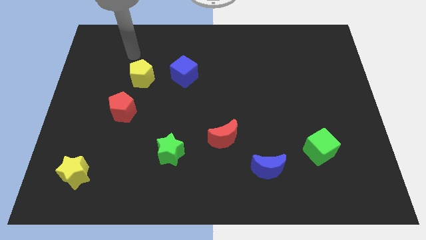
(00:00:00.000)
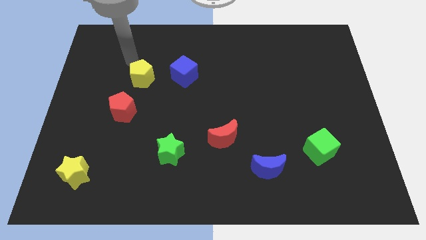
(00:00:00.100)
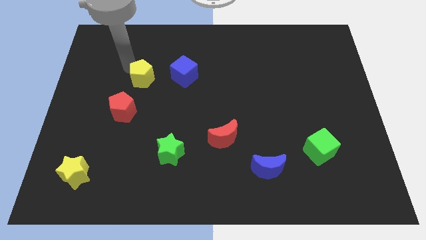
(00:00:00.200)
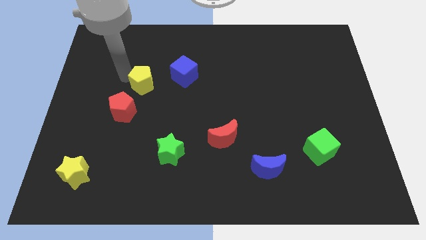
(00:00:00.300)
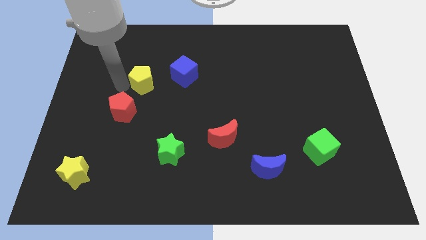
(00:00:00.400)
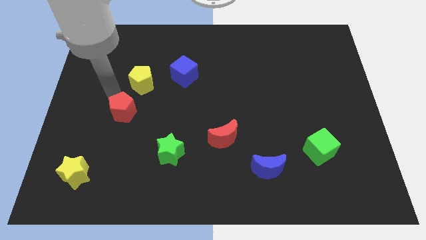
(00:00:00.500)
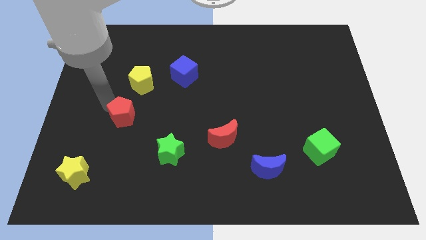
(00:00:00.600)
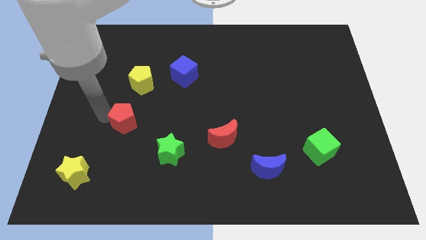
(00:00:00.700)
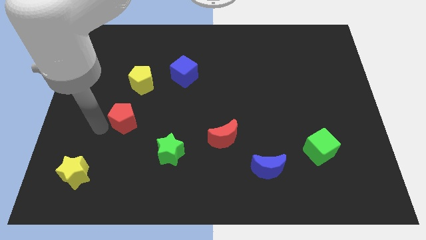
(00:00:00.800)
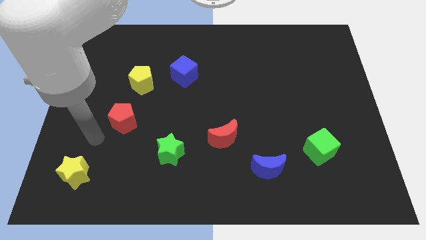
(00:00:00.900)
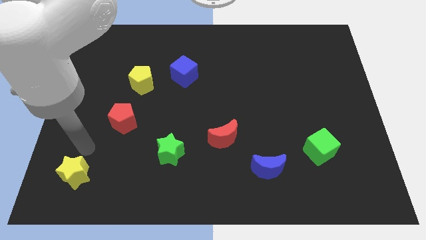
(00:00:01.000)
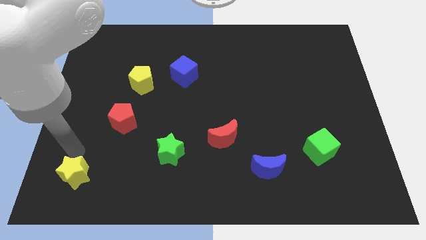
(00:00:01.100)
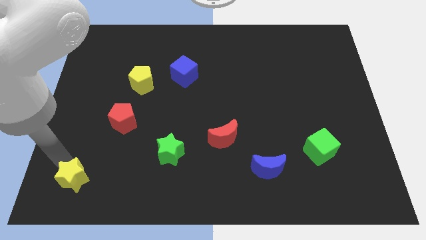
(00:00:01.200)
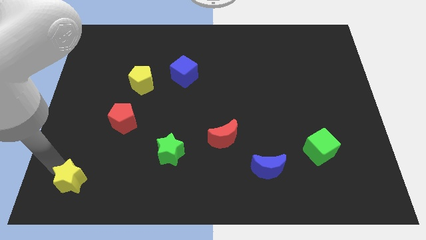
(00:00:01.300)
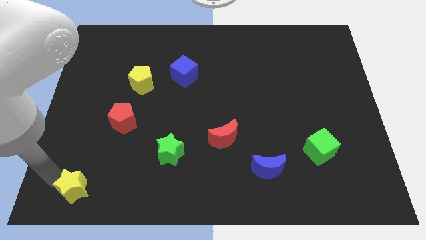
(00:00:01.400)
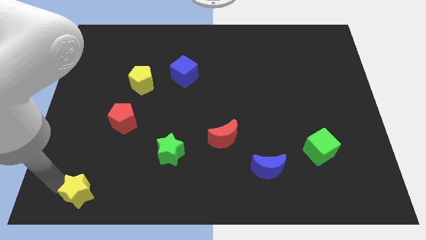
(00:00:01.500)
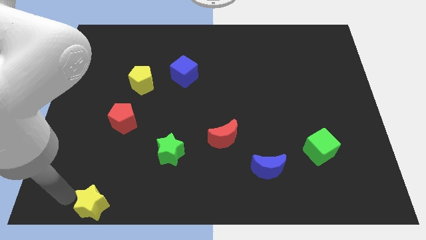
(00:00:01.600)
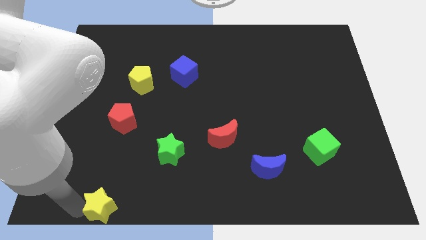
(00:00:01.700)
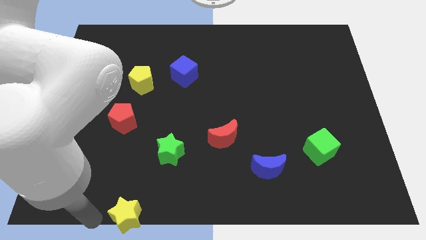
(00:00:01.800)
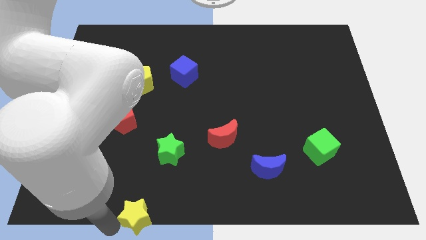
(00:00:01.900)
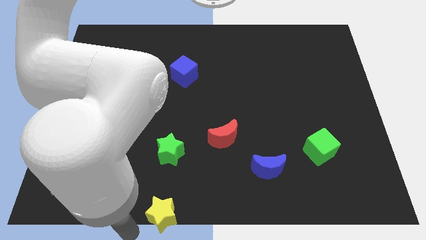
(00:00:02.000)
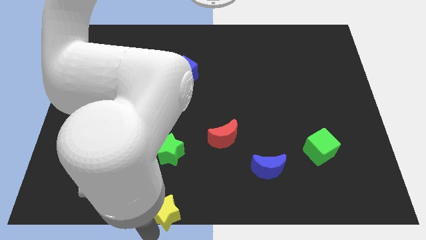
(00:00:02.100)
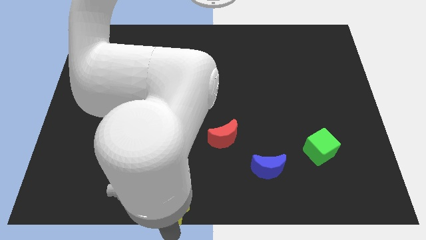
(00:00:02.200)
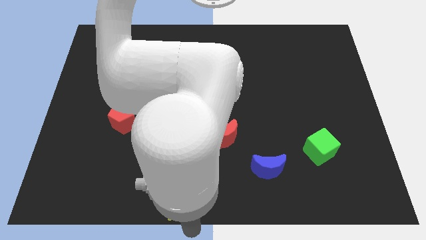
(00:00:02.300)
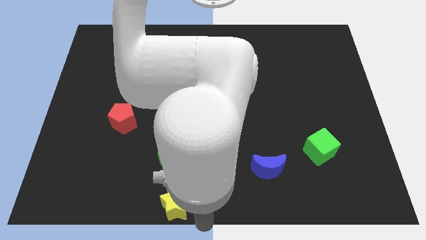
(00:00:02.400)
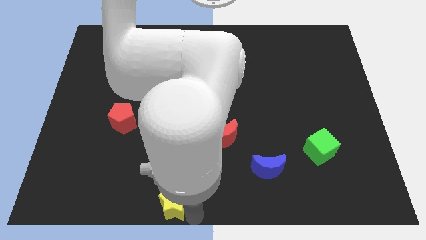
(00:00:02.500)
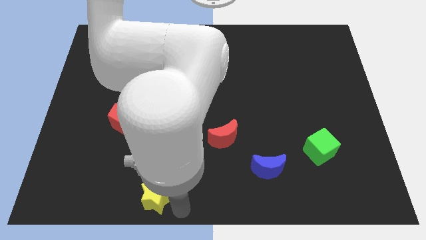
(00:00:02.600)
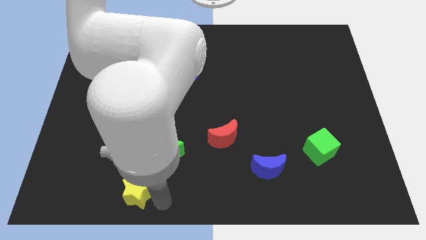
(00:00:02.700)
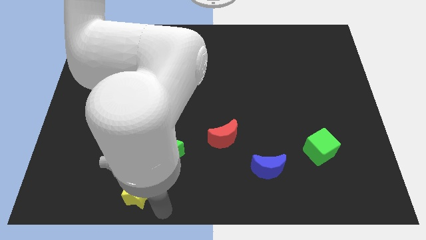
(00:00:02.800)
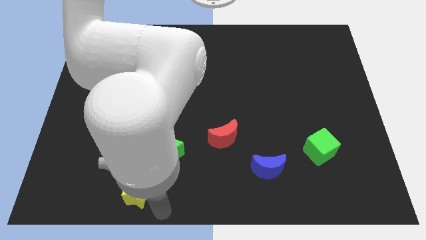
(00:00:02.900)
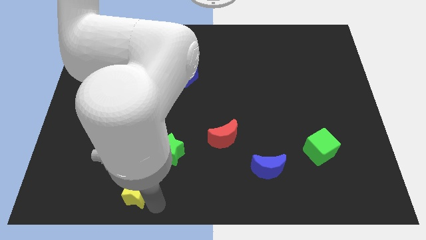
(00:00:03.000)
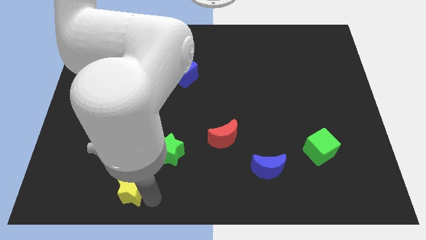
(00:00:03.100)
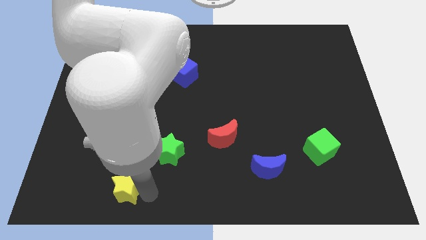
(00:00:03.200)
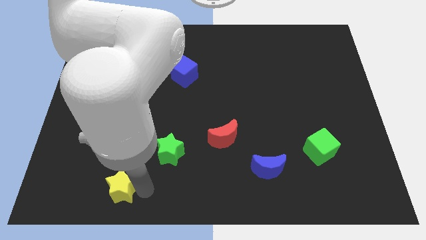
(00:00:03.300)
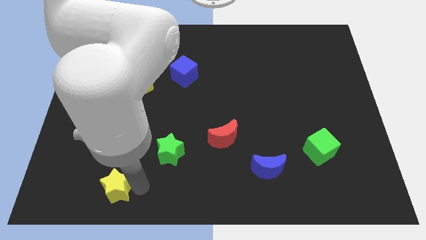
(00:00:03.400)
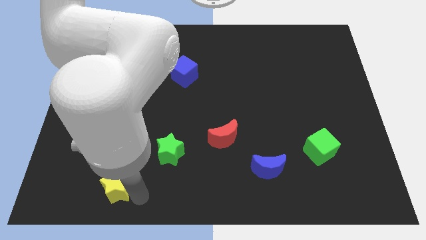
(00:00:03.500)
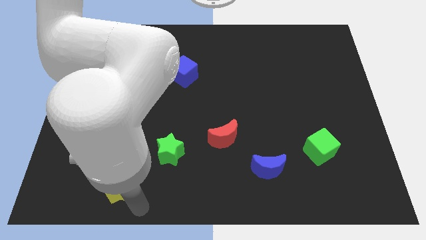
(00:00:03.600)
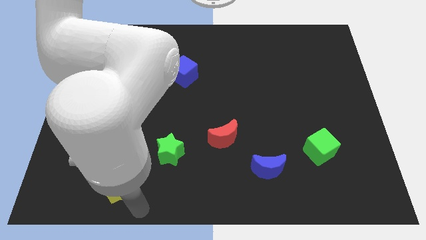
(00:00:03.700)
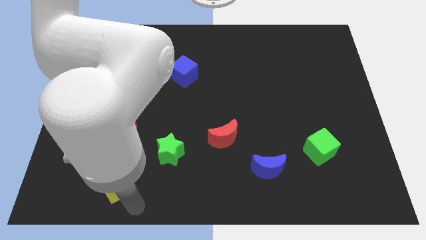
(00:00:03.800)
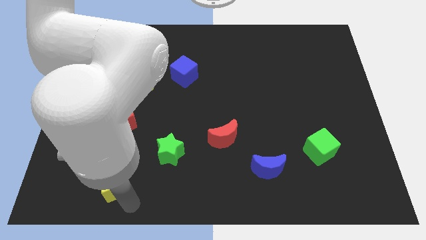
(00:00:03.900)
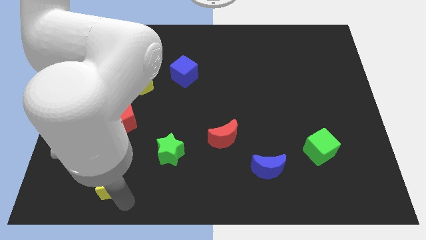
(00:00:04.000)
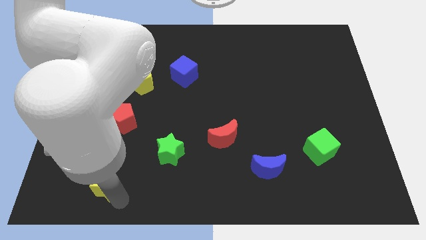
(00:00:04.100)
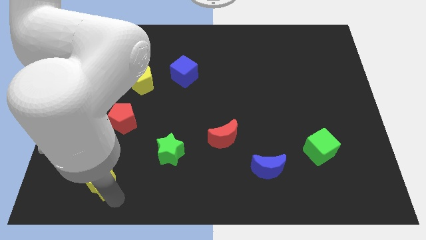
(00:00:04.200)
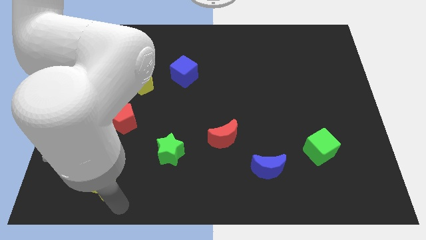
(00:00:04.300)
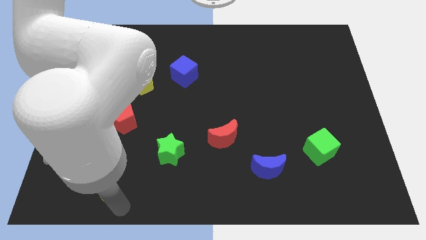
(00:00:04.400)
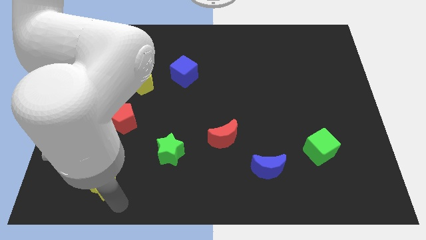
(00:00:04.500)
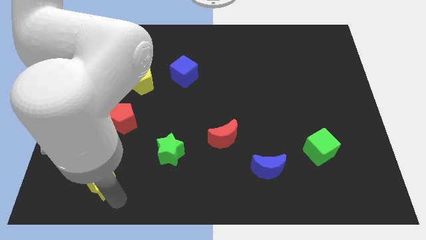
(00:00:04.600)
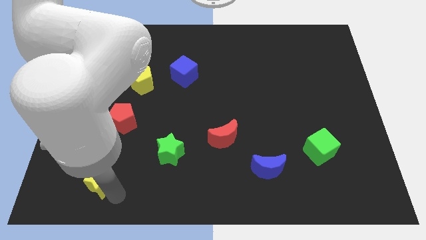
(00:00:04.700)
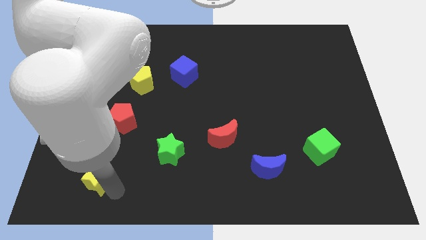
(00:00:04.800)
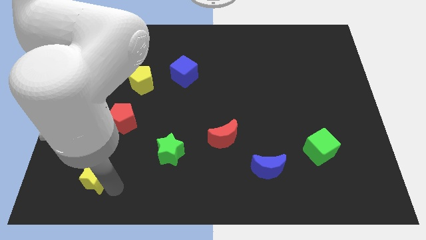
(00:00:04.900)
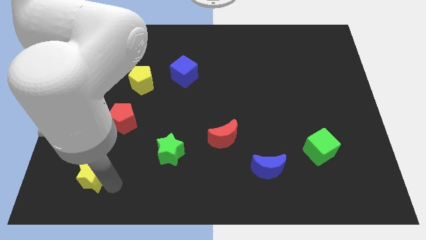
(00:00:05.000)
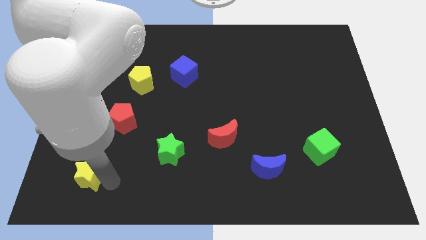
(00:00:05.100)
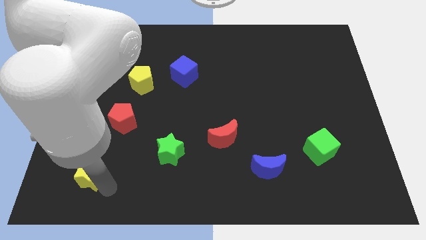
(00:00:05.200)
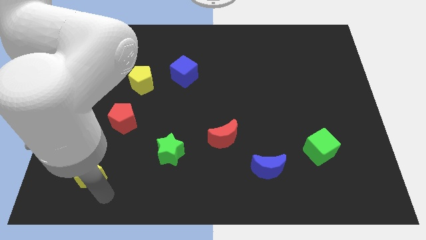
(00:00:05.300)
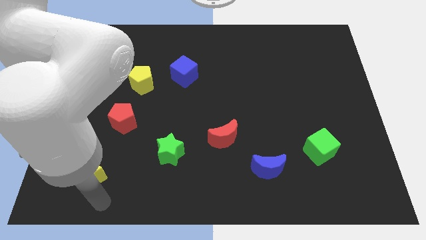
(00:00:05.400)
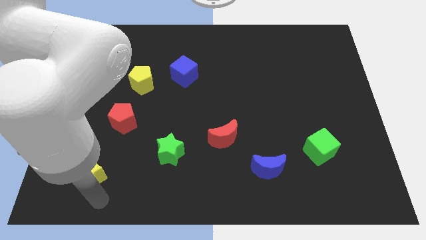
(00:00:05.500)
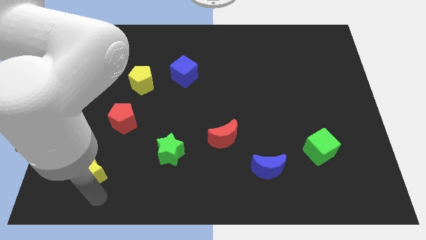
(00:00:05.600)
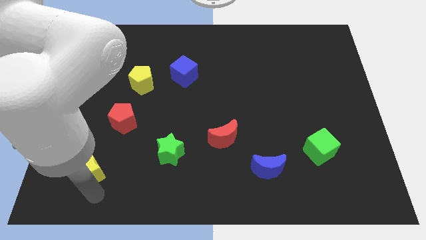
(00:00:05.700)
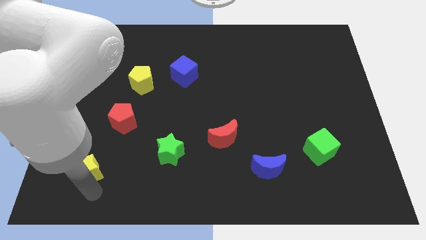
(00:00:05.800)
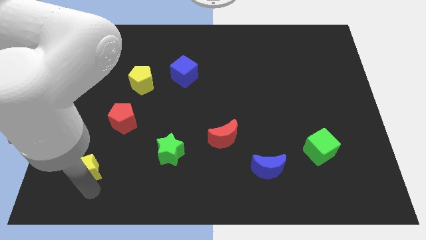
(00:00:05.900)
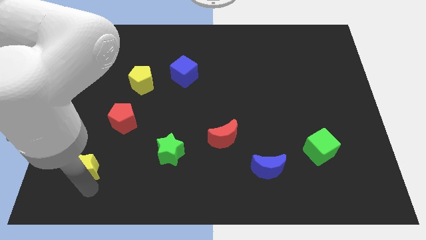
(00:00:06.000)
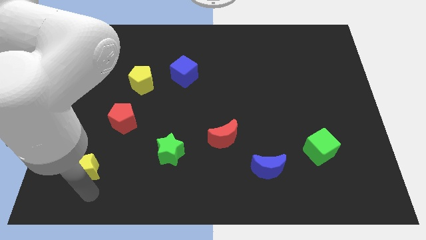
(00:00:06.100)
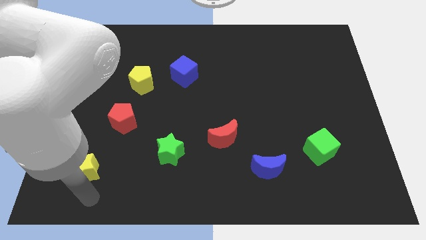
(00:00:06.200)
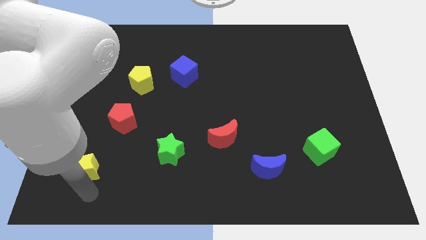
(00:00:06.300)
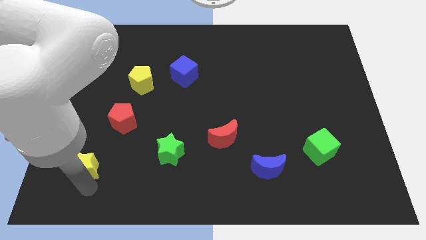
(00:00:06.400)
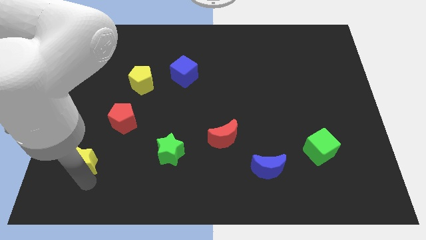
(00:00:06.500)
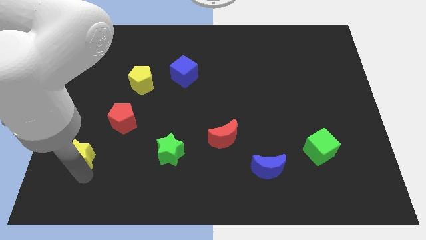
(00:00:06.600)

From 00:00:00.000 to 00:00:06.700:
move the yellow star diagonally down and to the left of the red pentagon
